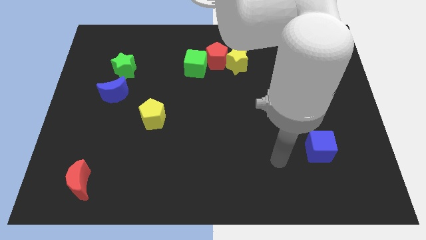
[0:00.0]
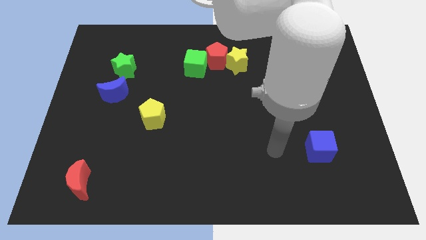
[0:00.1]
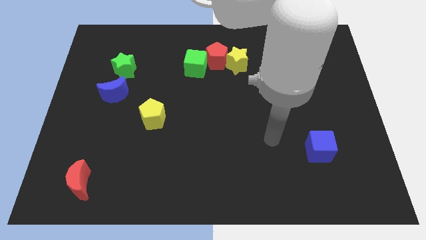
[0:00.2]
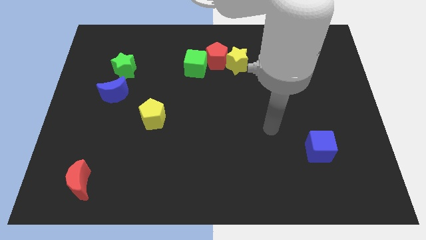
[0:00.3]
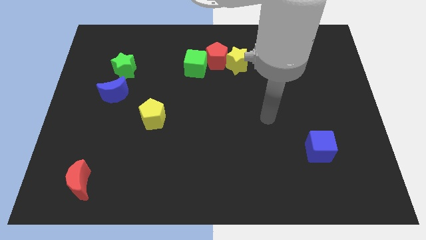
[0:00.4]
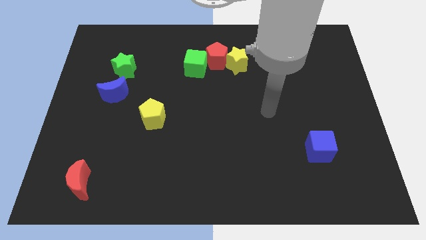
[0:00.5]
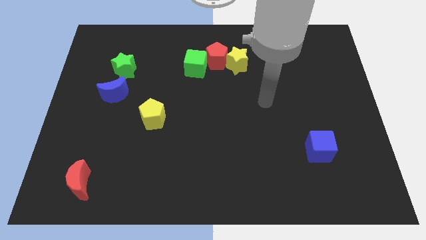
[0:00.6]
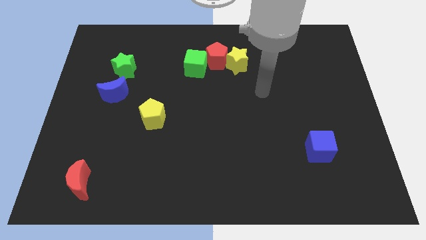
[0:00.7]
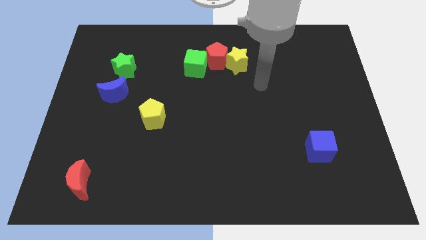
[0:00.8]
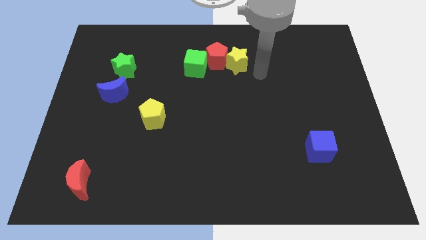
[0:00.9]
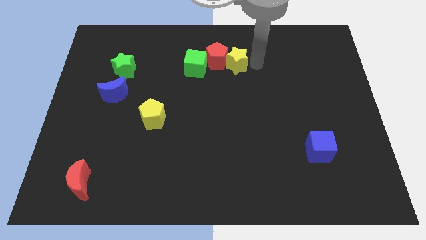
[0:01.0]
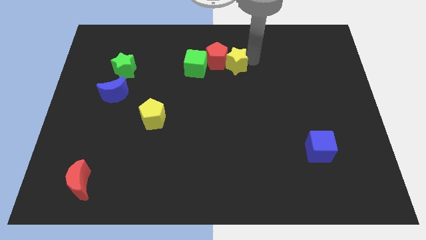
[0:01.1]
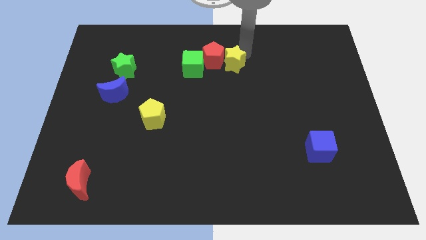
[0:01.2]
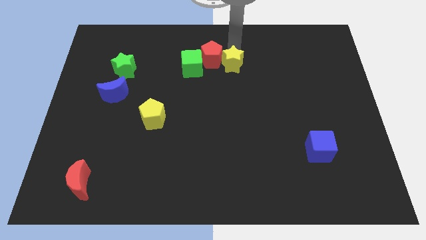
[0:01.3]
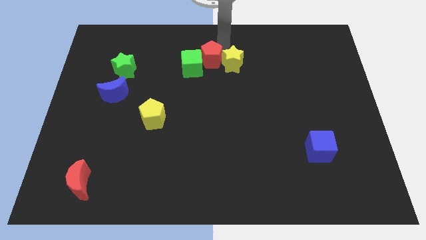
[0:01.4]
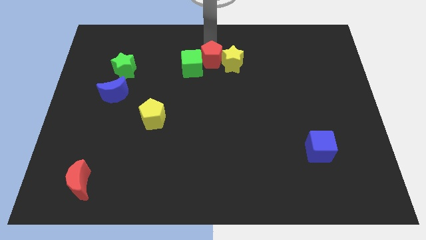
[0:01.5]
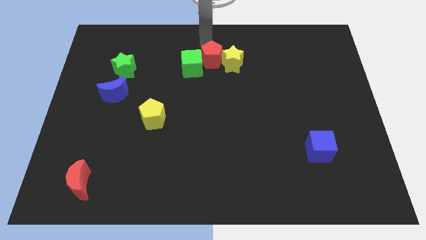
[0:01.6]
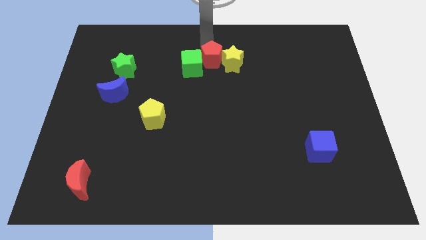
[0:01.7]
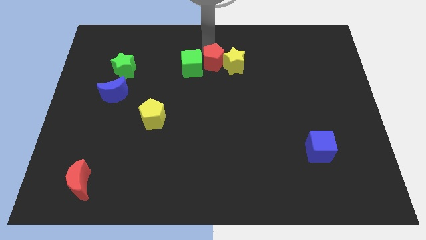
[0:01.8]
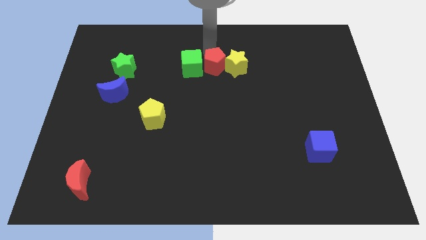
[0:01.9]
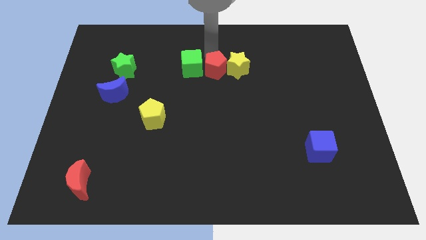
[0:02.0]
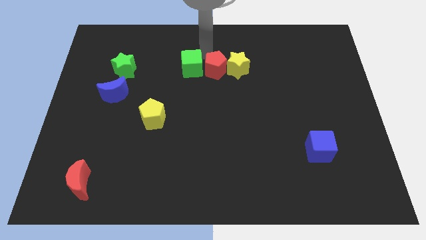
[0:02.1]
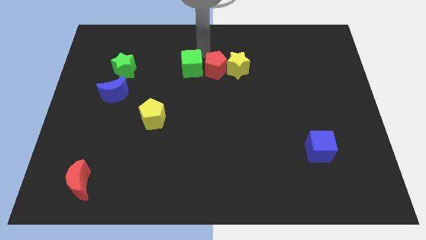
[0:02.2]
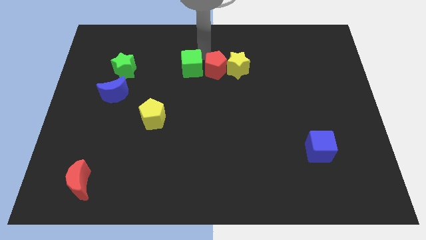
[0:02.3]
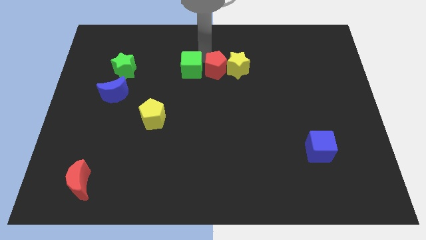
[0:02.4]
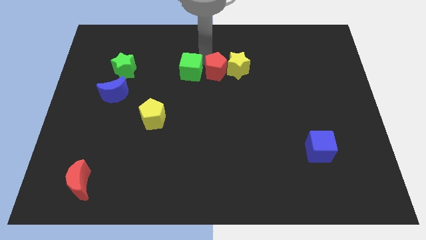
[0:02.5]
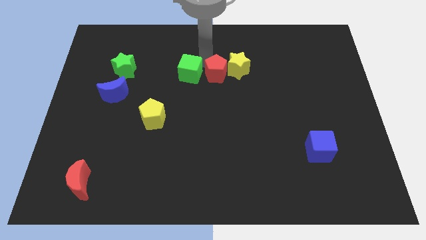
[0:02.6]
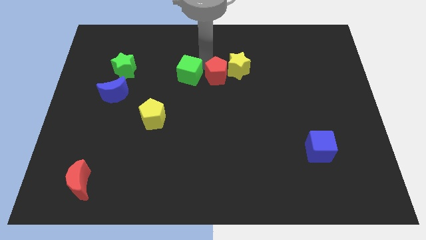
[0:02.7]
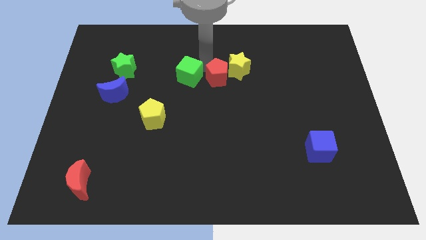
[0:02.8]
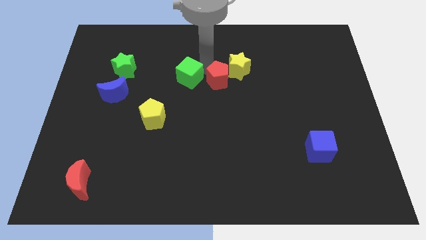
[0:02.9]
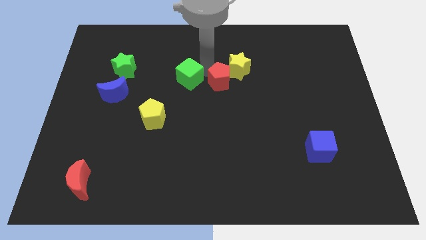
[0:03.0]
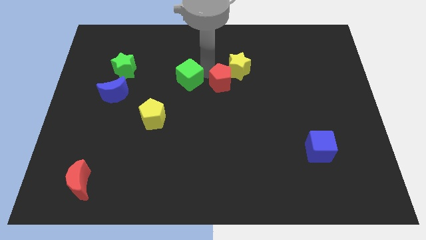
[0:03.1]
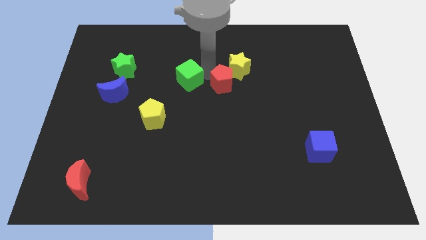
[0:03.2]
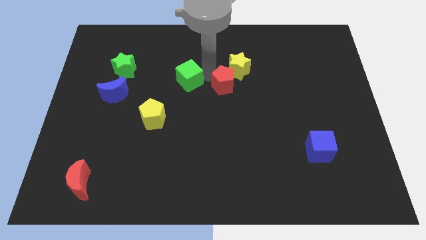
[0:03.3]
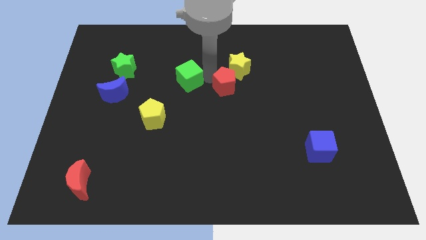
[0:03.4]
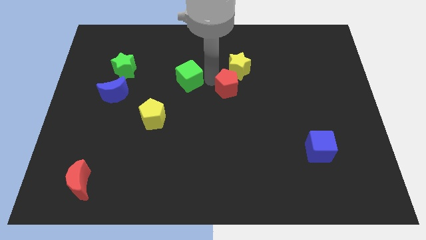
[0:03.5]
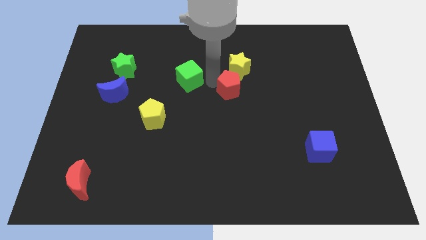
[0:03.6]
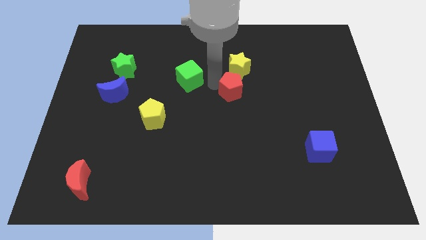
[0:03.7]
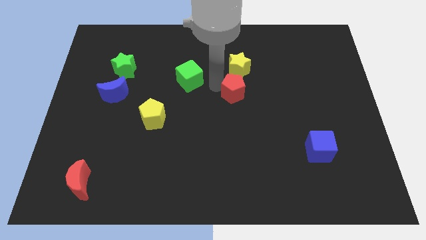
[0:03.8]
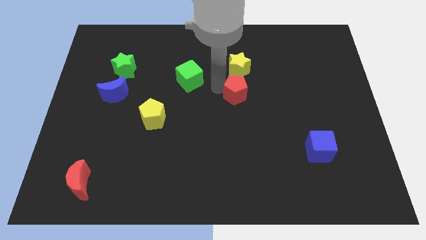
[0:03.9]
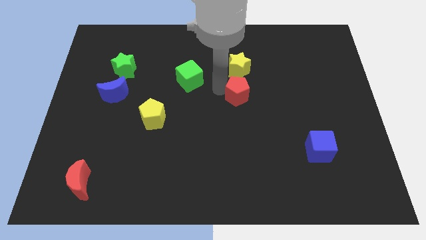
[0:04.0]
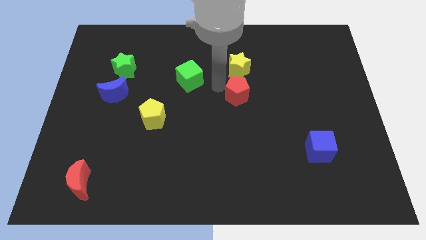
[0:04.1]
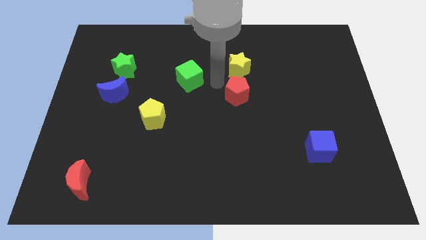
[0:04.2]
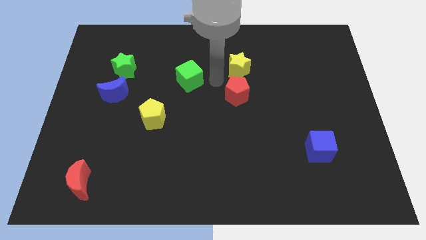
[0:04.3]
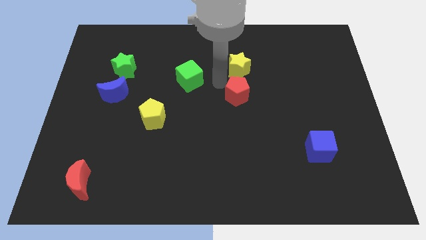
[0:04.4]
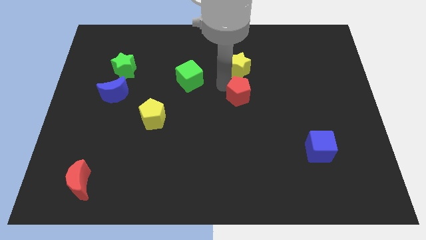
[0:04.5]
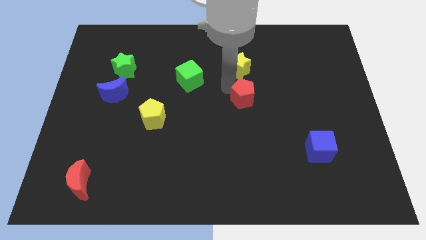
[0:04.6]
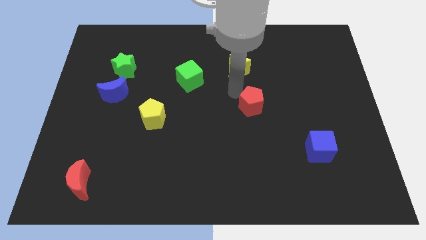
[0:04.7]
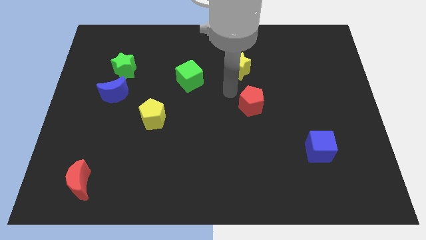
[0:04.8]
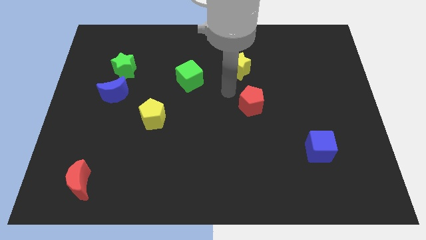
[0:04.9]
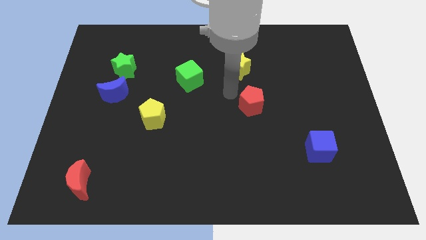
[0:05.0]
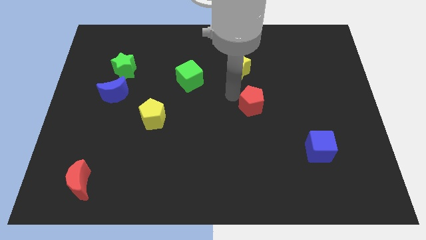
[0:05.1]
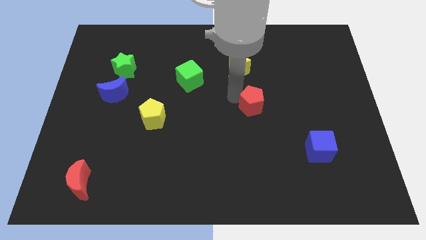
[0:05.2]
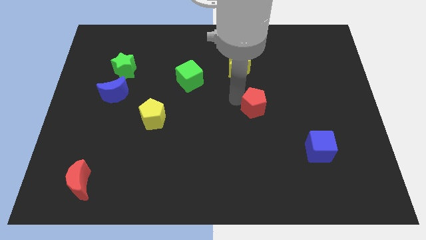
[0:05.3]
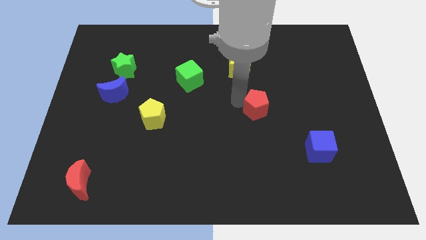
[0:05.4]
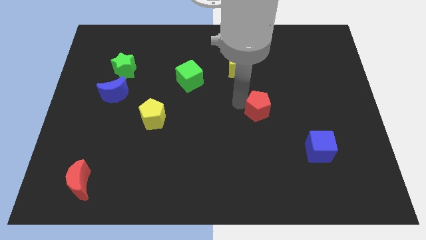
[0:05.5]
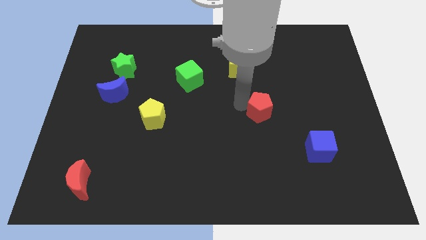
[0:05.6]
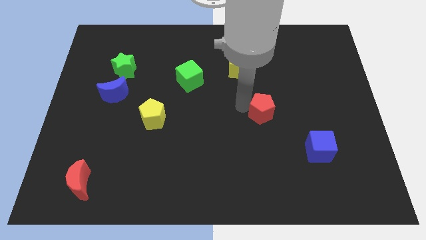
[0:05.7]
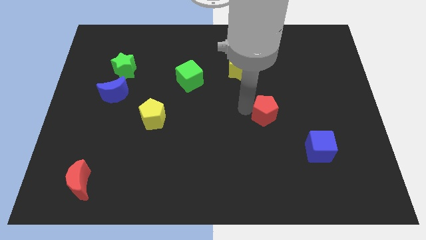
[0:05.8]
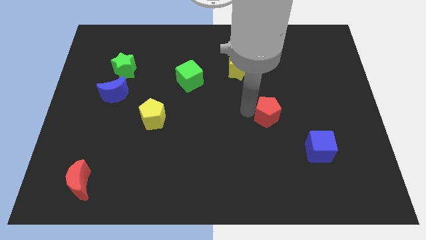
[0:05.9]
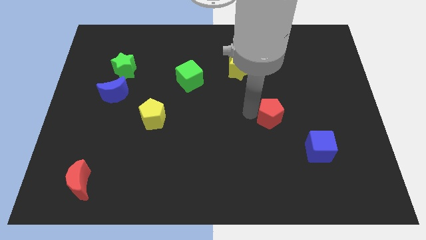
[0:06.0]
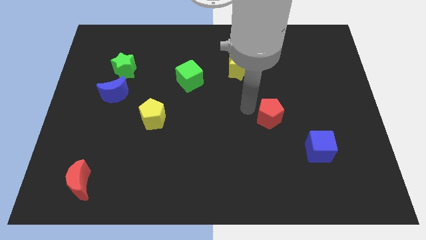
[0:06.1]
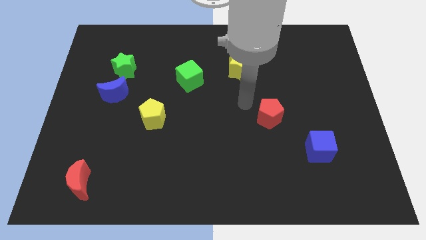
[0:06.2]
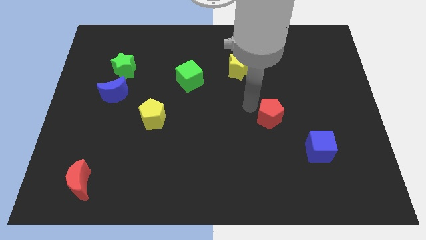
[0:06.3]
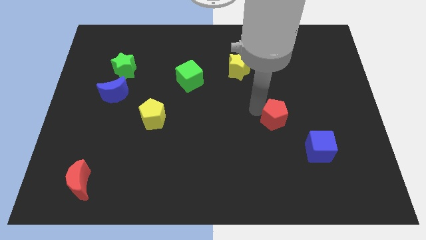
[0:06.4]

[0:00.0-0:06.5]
push the red pentagon diagonally up and to the left of the blue cube

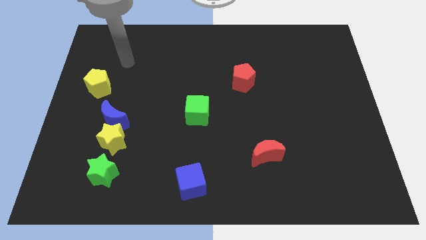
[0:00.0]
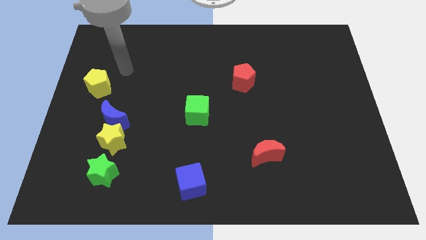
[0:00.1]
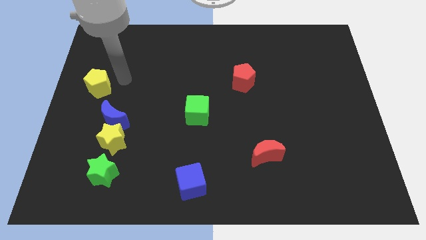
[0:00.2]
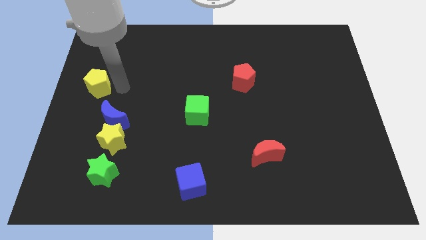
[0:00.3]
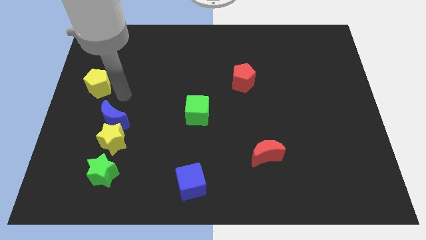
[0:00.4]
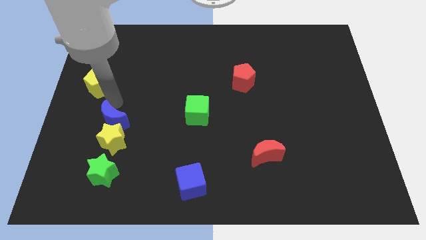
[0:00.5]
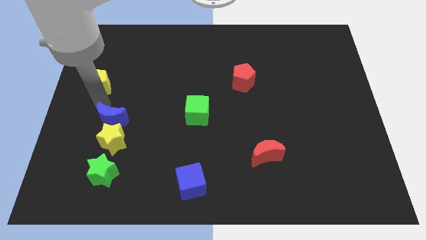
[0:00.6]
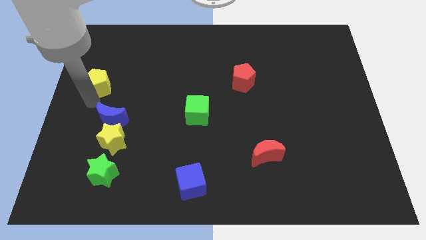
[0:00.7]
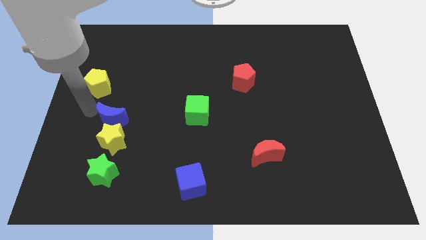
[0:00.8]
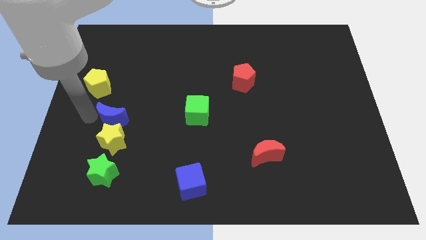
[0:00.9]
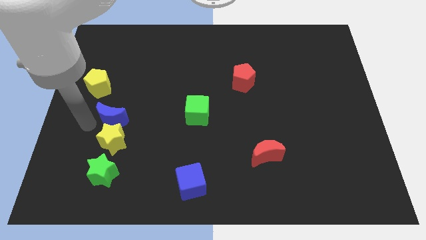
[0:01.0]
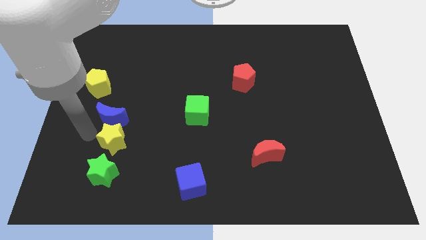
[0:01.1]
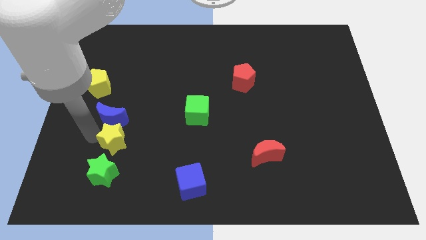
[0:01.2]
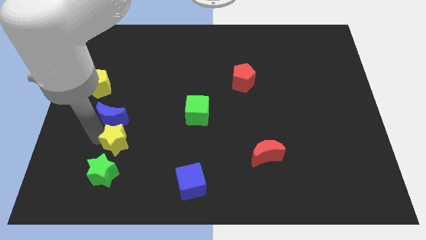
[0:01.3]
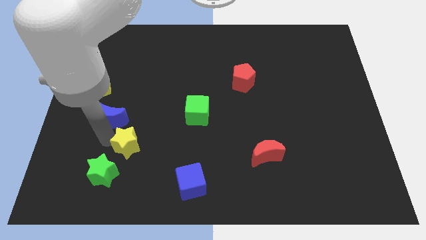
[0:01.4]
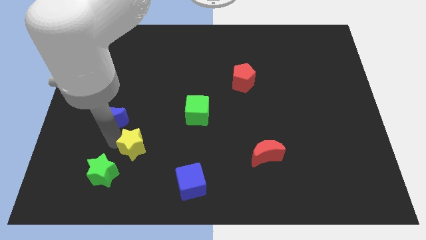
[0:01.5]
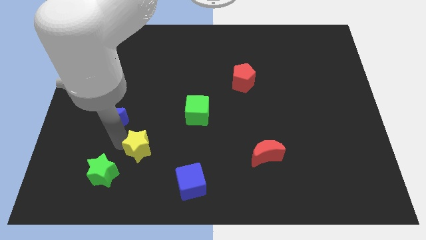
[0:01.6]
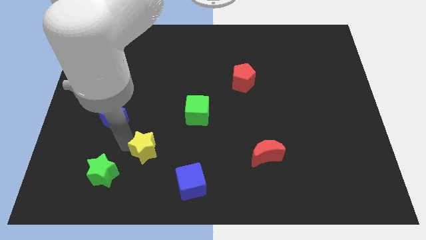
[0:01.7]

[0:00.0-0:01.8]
move the yellow star to the top left of the blue cube

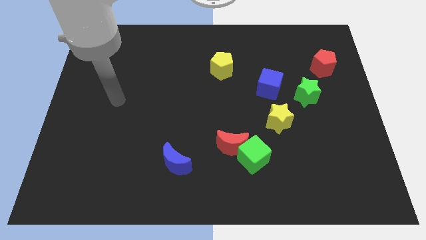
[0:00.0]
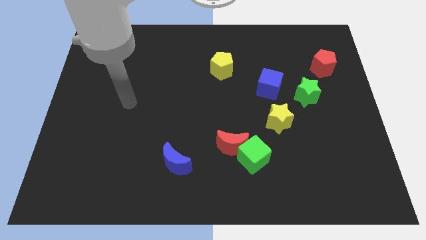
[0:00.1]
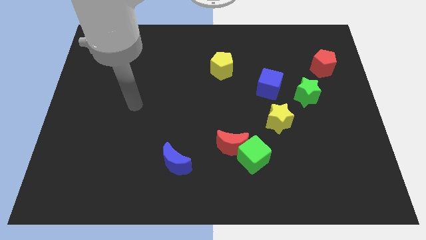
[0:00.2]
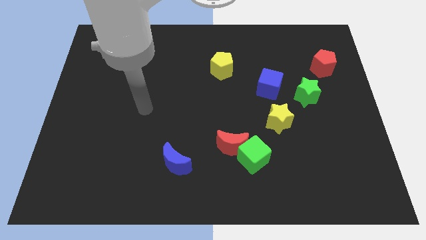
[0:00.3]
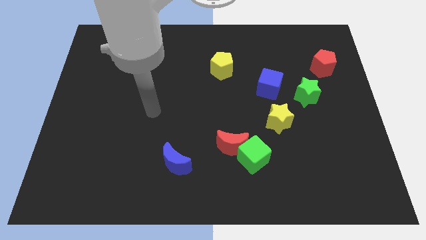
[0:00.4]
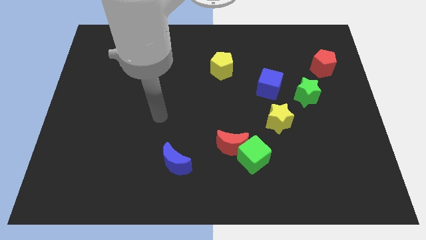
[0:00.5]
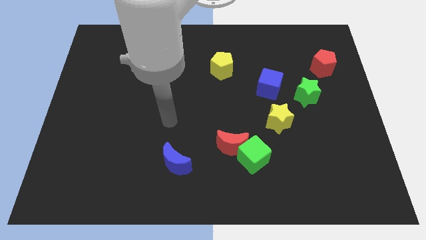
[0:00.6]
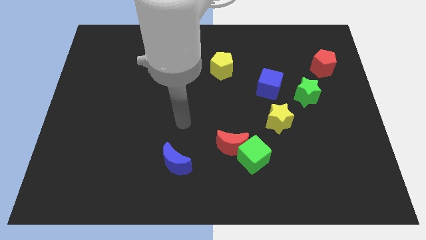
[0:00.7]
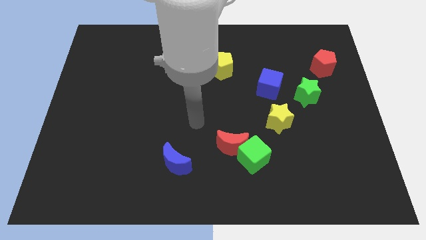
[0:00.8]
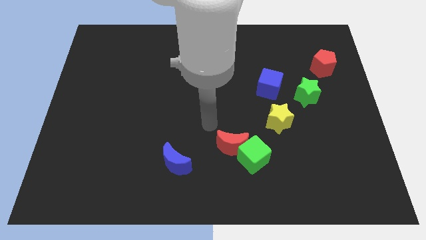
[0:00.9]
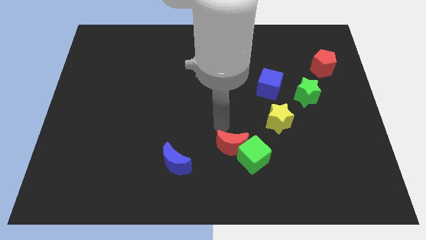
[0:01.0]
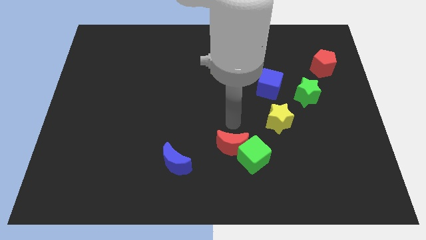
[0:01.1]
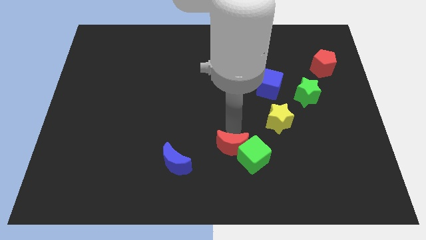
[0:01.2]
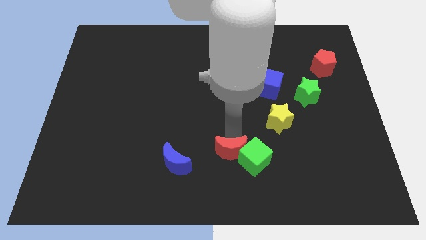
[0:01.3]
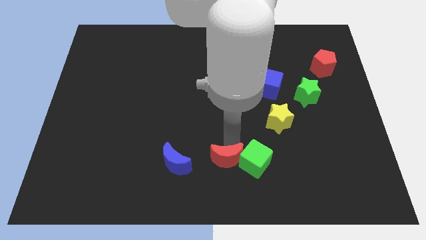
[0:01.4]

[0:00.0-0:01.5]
push the red moon diagonally down and to the left of the green cube
